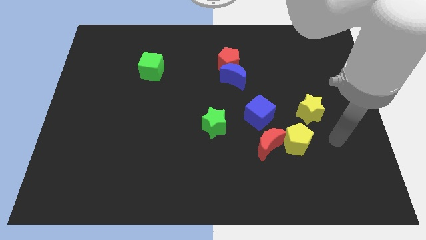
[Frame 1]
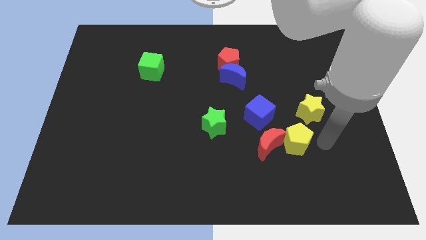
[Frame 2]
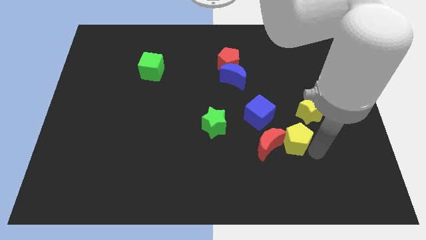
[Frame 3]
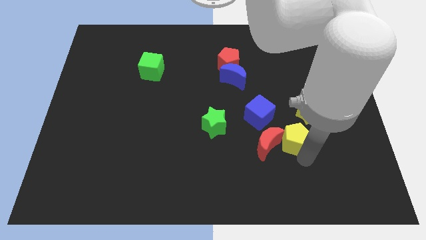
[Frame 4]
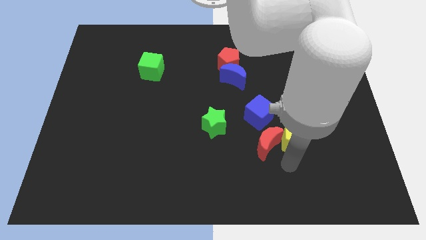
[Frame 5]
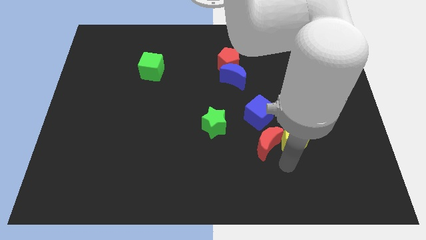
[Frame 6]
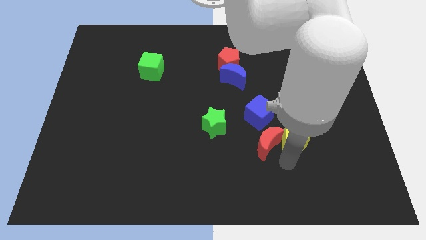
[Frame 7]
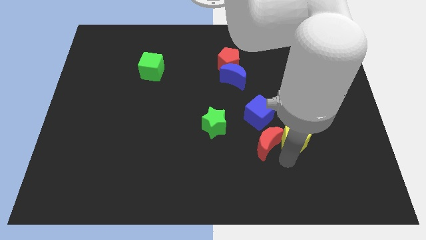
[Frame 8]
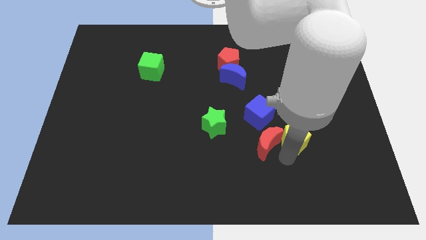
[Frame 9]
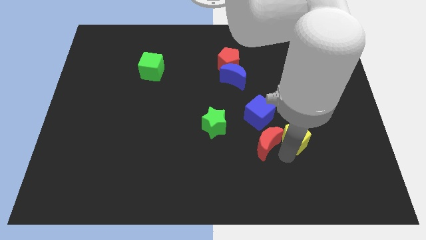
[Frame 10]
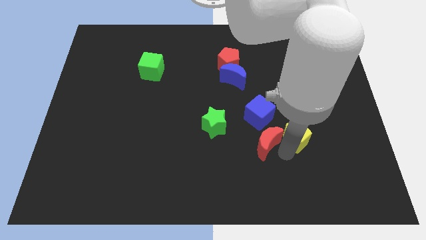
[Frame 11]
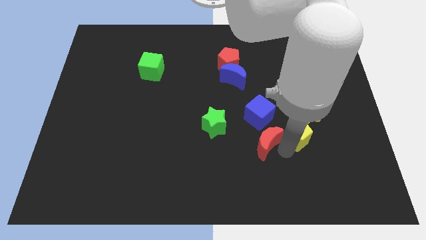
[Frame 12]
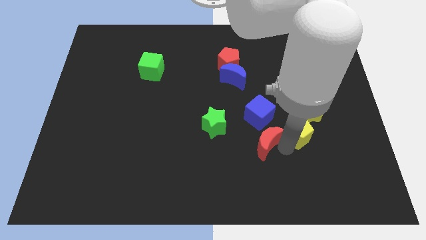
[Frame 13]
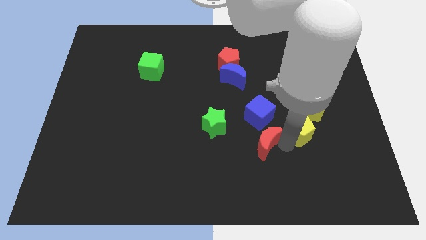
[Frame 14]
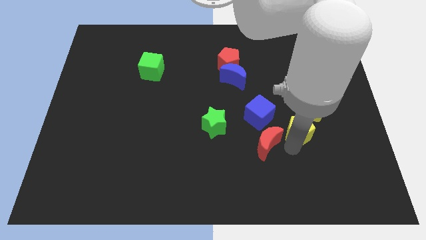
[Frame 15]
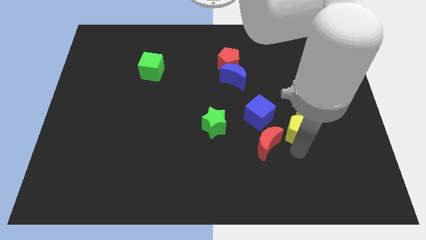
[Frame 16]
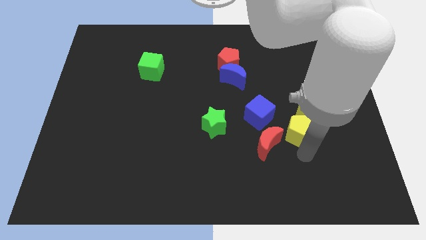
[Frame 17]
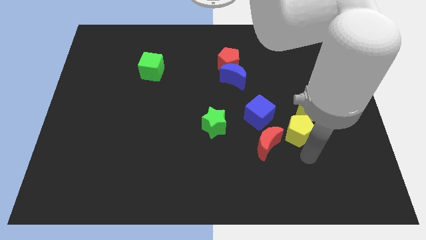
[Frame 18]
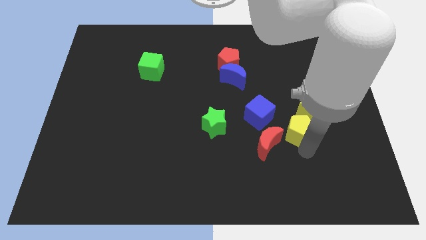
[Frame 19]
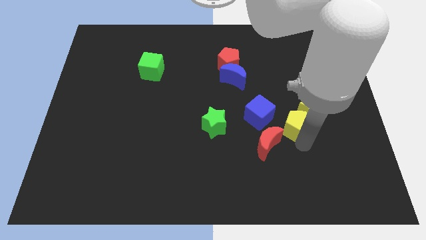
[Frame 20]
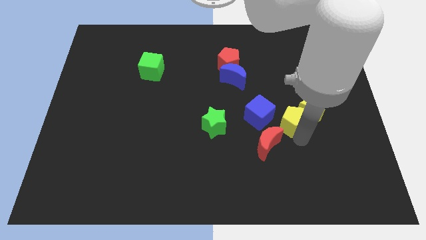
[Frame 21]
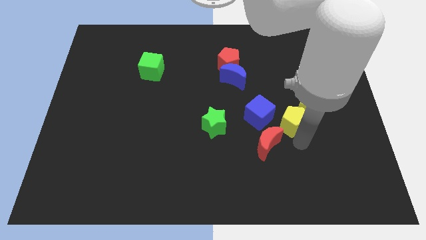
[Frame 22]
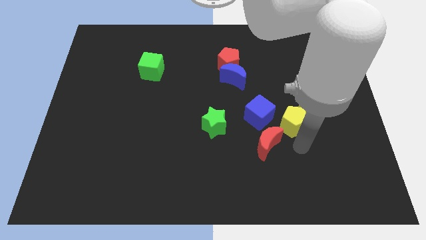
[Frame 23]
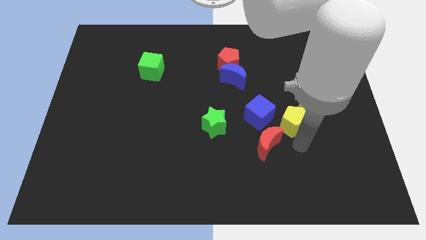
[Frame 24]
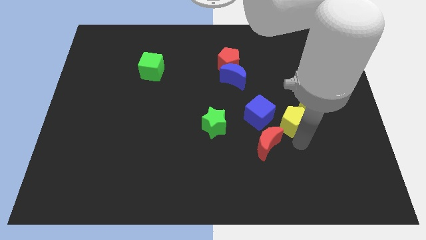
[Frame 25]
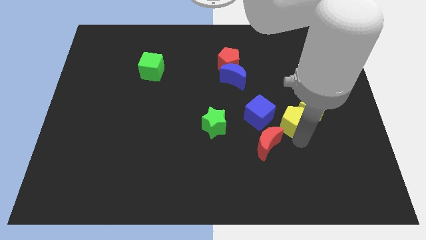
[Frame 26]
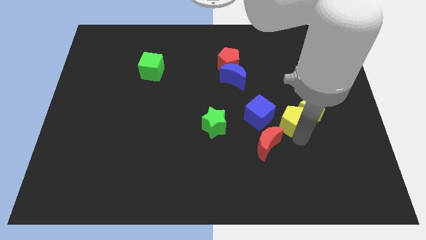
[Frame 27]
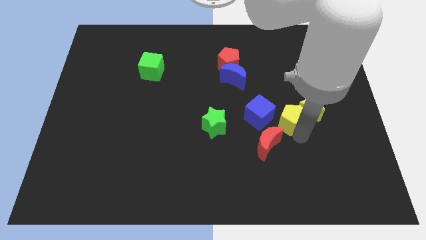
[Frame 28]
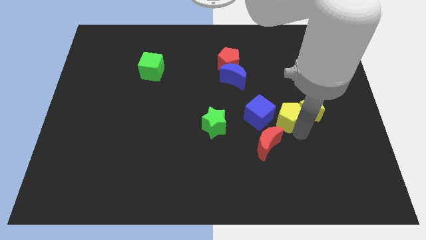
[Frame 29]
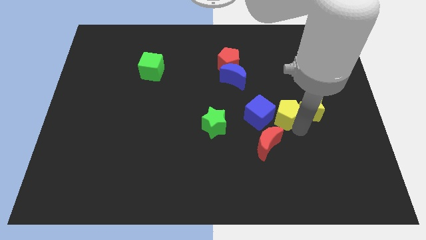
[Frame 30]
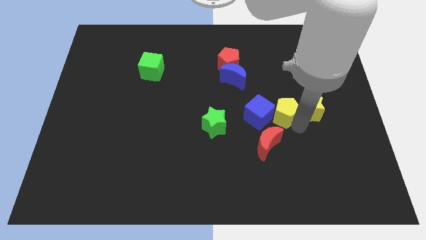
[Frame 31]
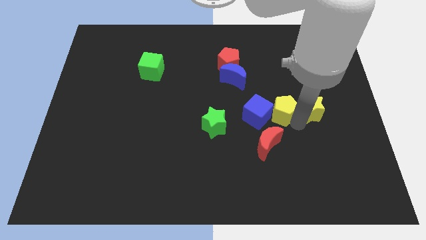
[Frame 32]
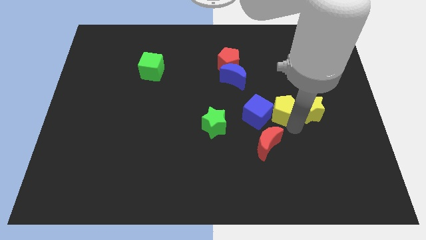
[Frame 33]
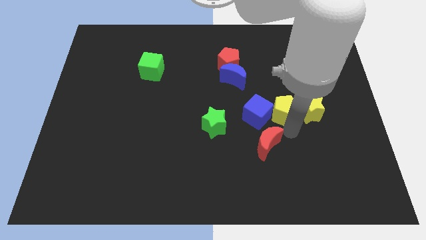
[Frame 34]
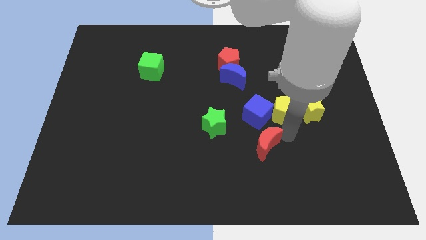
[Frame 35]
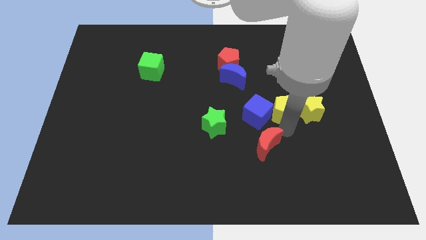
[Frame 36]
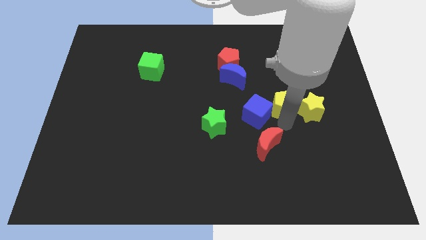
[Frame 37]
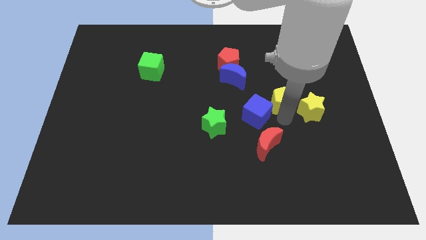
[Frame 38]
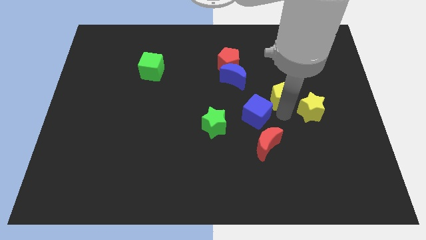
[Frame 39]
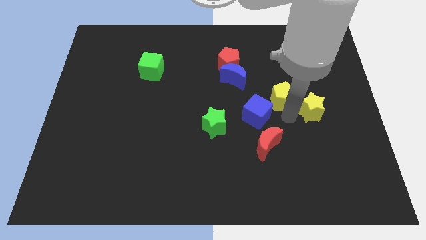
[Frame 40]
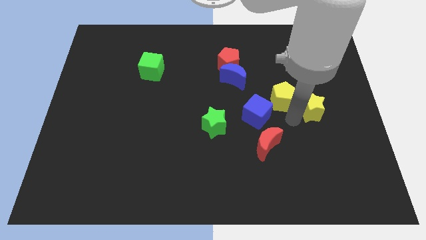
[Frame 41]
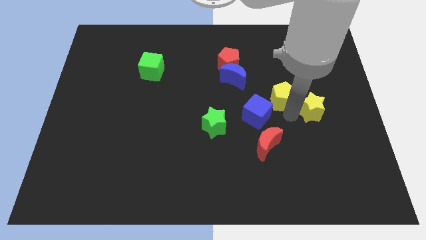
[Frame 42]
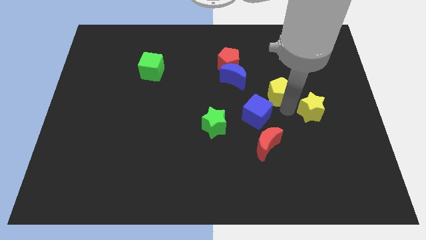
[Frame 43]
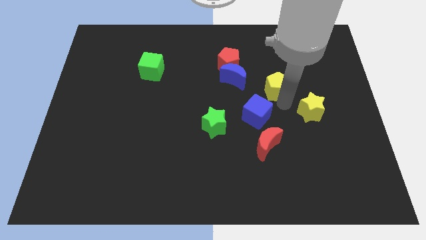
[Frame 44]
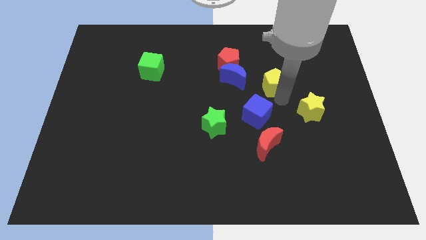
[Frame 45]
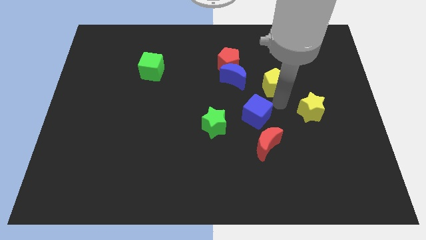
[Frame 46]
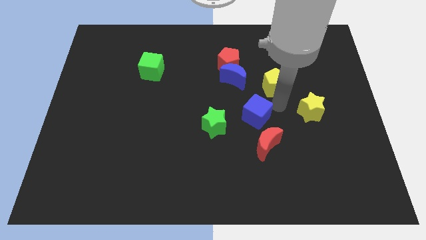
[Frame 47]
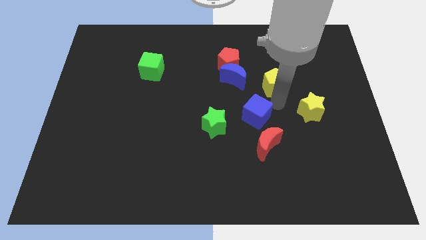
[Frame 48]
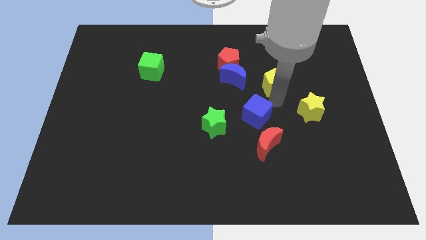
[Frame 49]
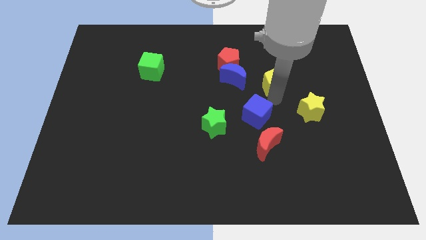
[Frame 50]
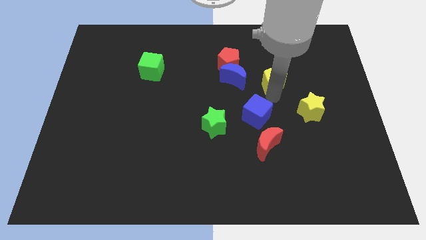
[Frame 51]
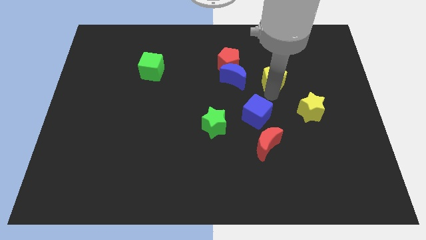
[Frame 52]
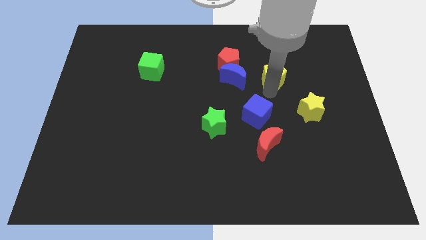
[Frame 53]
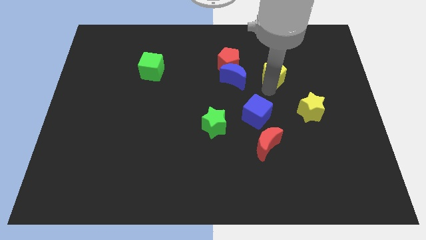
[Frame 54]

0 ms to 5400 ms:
slide the yellow pentagon to the right side of the red pentagon

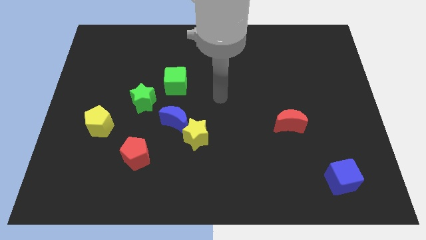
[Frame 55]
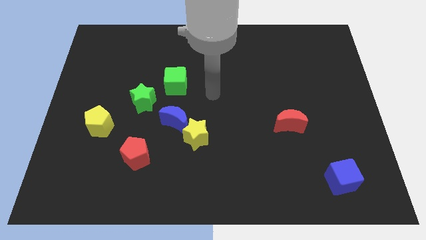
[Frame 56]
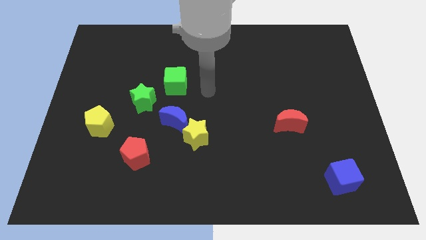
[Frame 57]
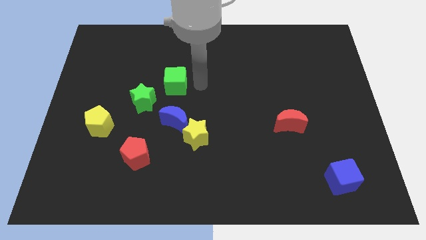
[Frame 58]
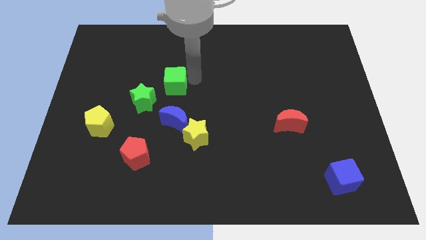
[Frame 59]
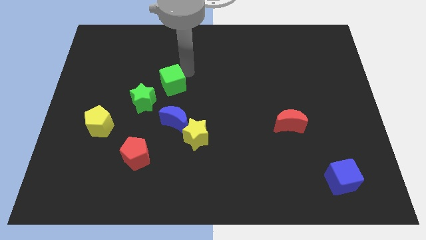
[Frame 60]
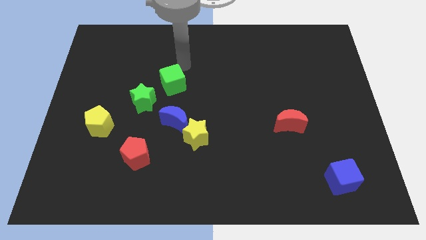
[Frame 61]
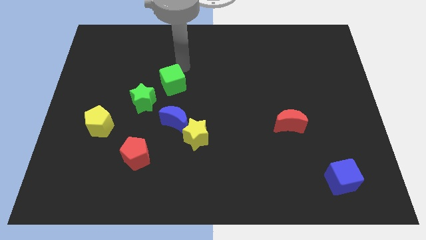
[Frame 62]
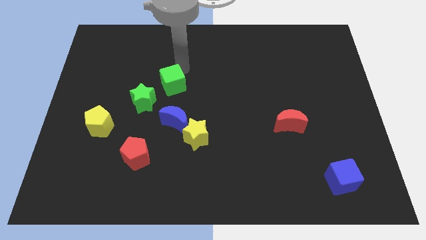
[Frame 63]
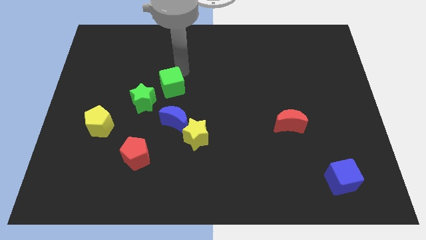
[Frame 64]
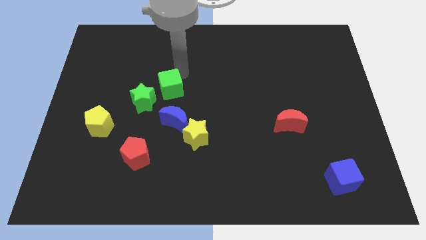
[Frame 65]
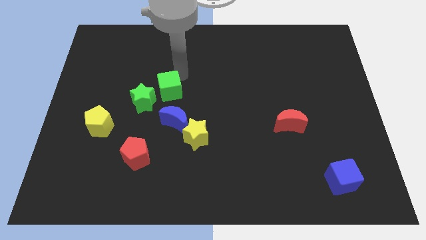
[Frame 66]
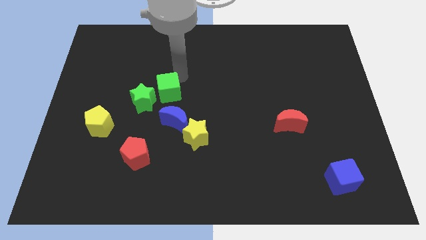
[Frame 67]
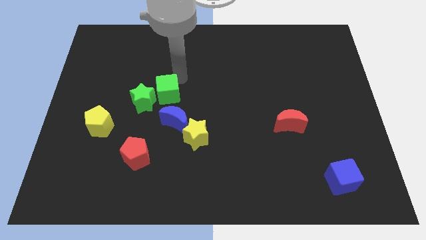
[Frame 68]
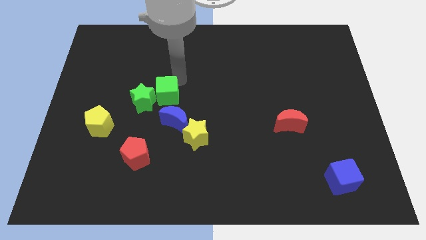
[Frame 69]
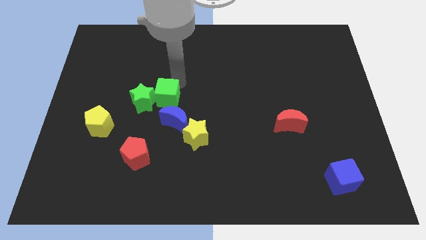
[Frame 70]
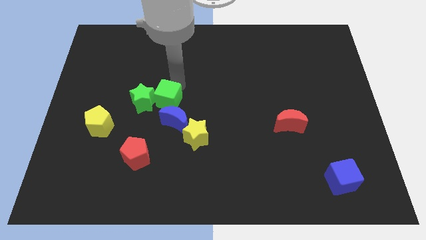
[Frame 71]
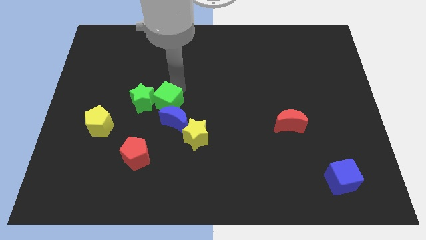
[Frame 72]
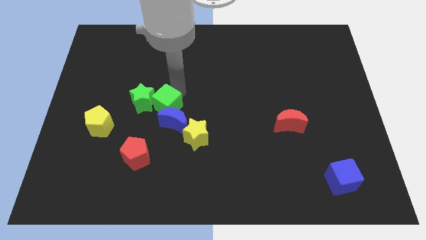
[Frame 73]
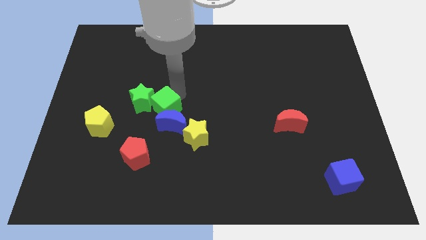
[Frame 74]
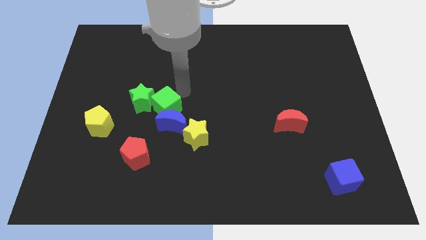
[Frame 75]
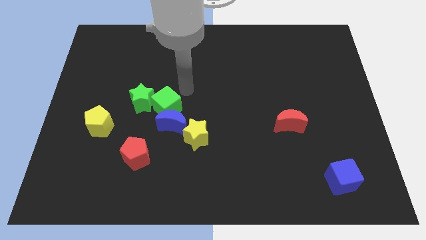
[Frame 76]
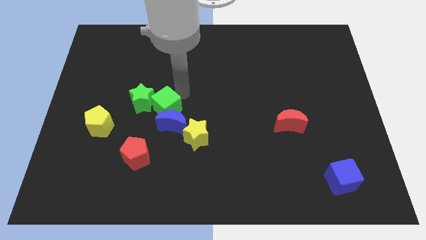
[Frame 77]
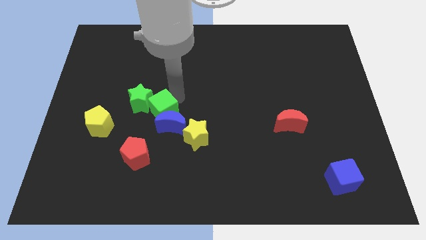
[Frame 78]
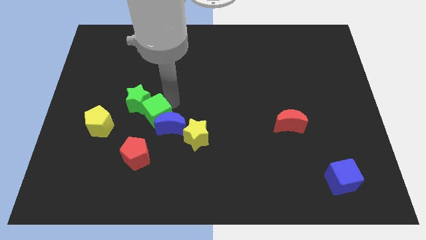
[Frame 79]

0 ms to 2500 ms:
slide the green cube right of the yellow pentagon
